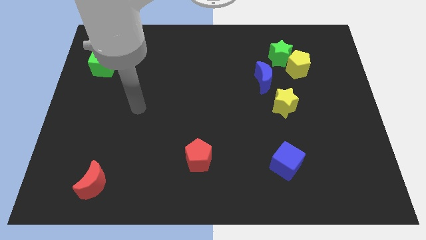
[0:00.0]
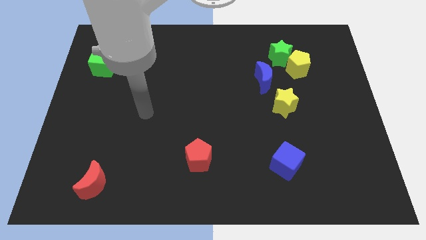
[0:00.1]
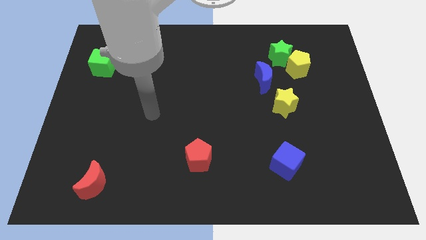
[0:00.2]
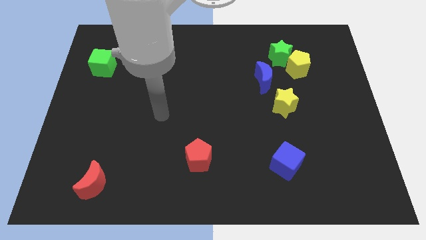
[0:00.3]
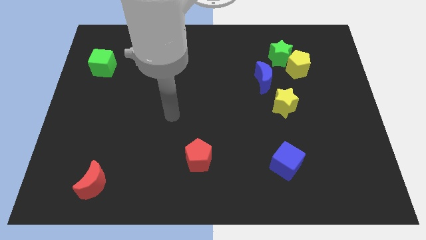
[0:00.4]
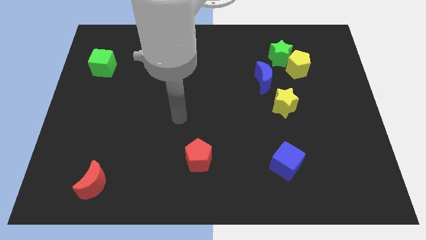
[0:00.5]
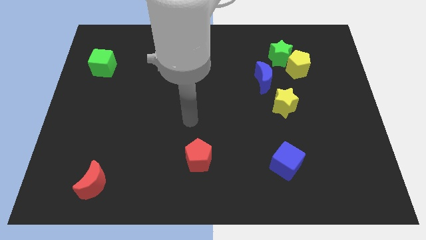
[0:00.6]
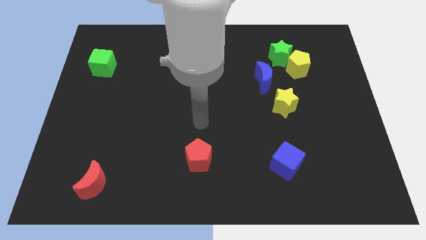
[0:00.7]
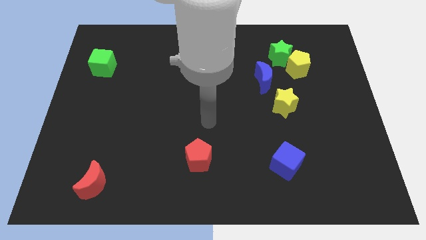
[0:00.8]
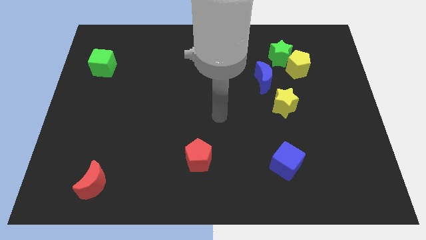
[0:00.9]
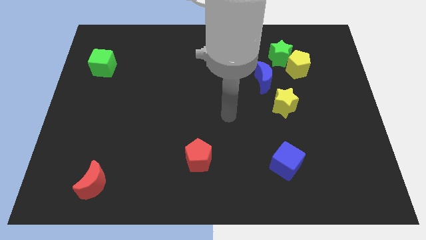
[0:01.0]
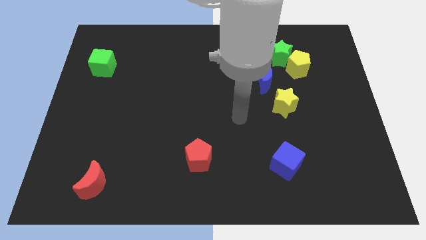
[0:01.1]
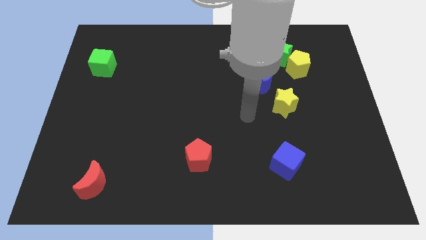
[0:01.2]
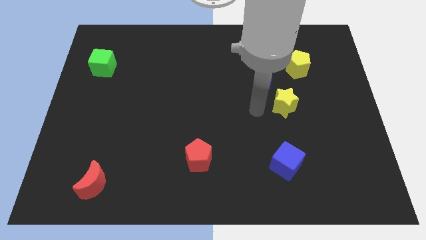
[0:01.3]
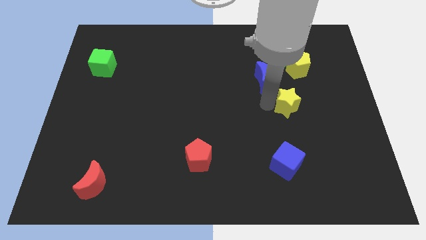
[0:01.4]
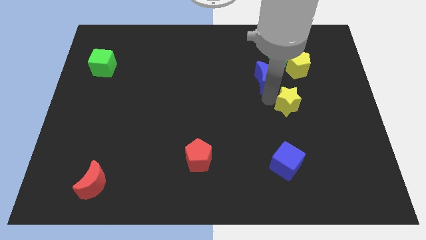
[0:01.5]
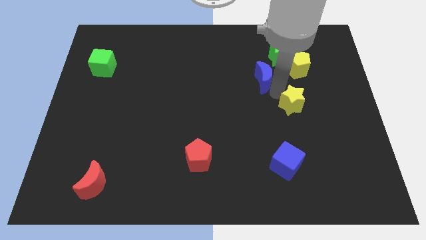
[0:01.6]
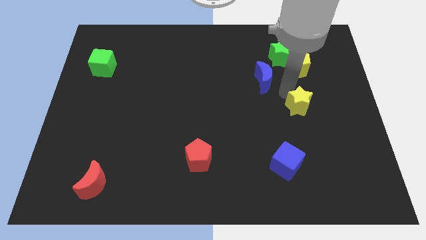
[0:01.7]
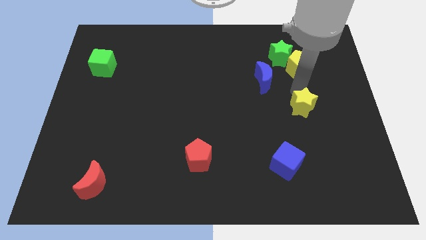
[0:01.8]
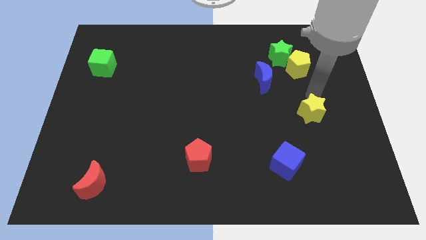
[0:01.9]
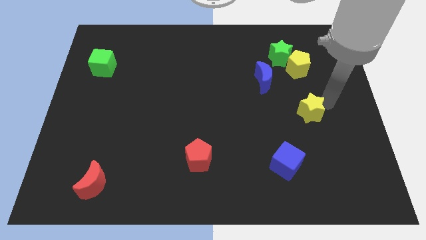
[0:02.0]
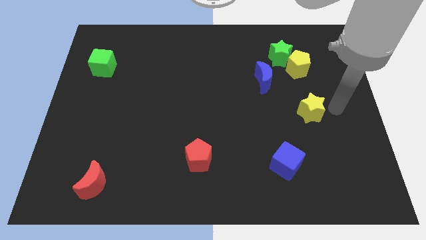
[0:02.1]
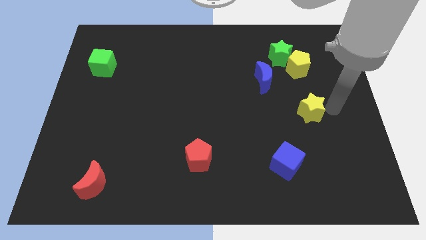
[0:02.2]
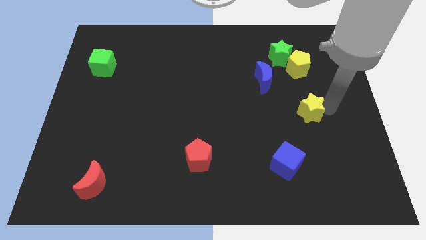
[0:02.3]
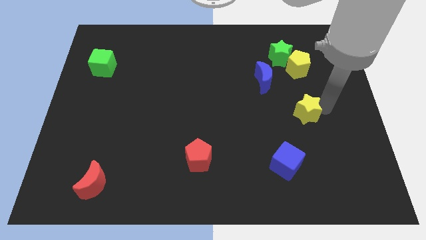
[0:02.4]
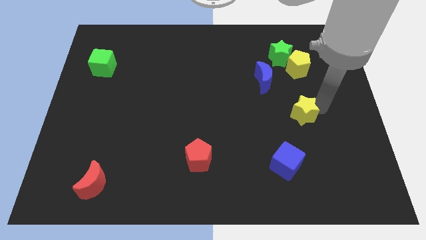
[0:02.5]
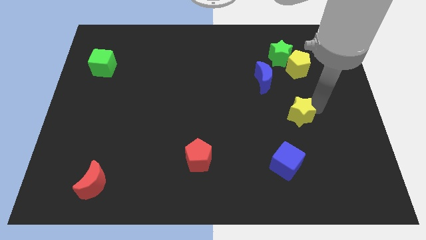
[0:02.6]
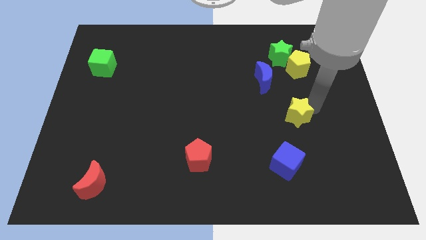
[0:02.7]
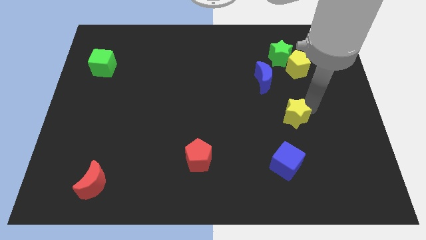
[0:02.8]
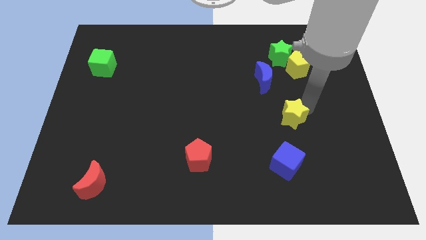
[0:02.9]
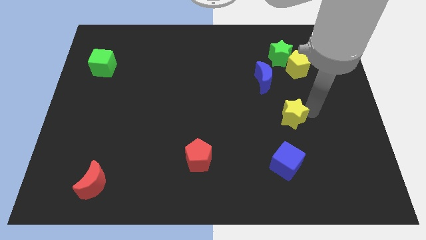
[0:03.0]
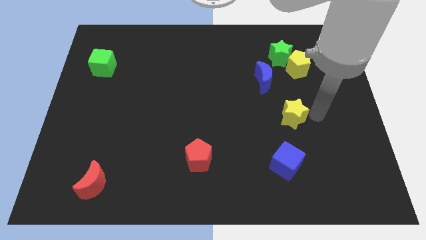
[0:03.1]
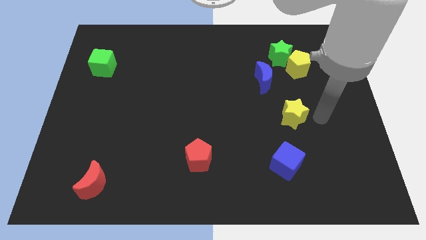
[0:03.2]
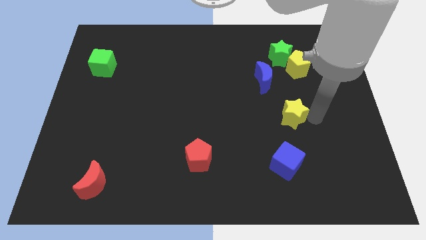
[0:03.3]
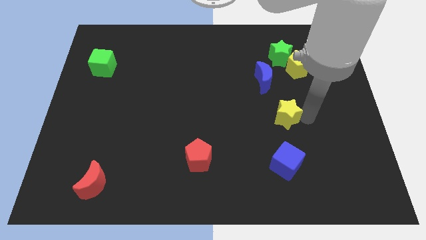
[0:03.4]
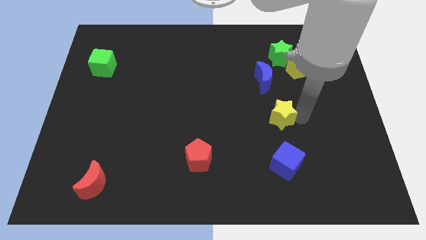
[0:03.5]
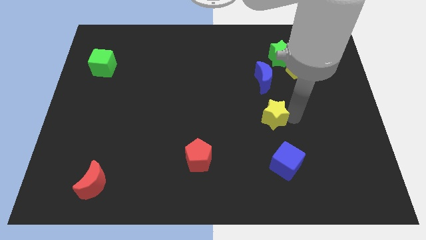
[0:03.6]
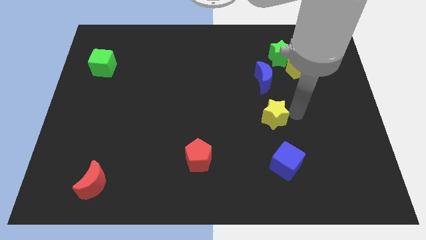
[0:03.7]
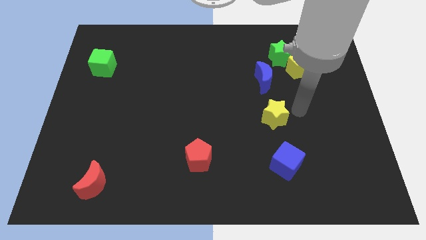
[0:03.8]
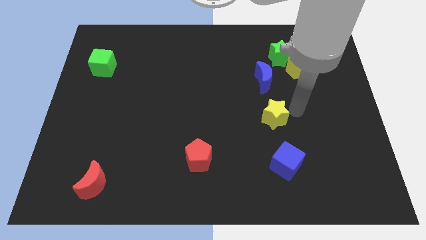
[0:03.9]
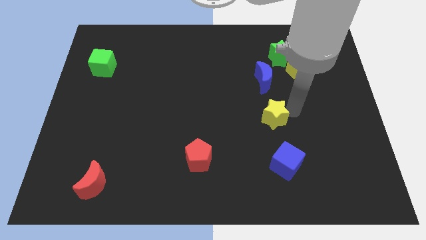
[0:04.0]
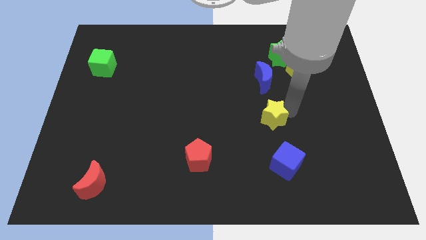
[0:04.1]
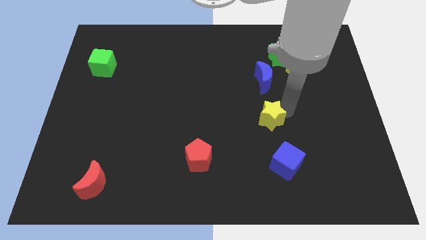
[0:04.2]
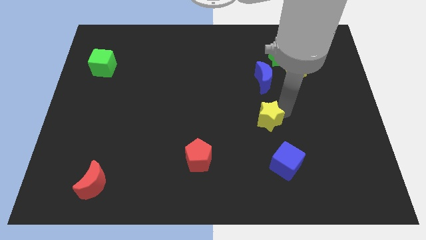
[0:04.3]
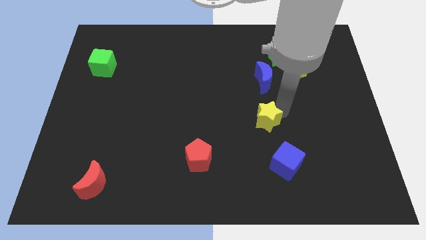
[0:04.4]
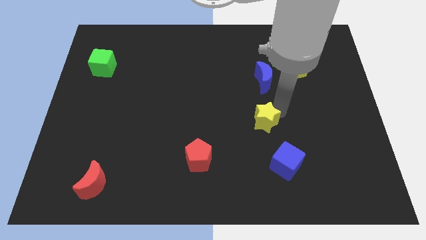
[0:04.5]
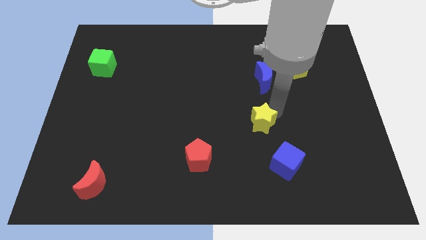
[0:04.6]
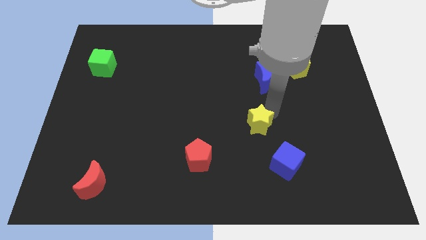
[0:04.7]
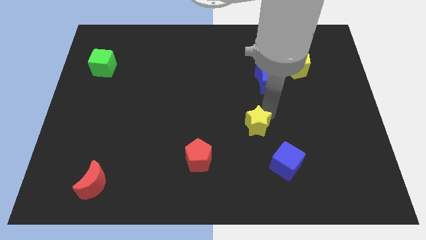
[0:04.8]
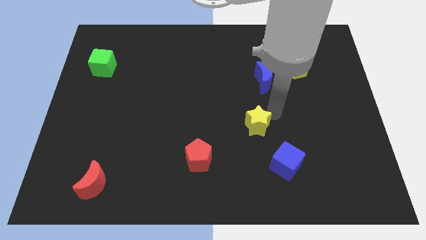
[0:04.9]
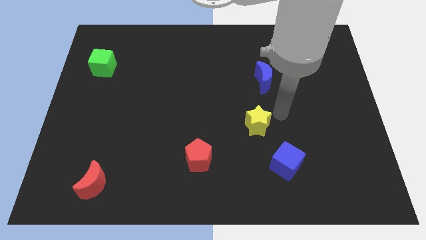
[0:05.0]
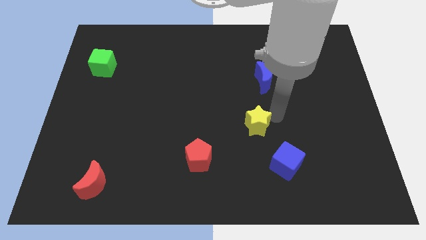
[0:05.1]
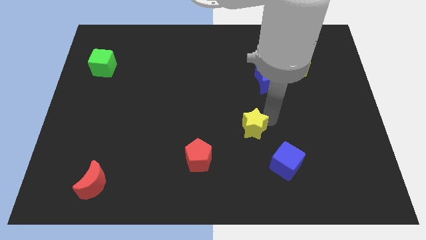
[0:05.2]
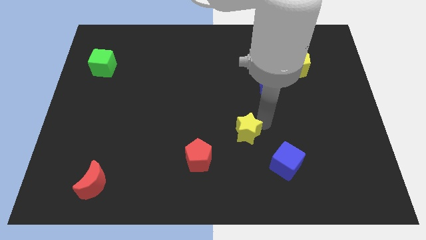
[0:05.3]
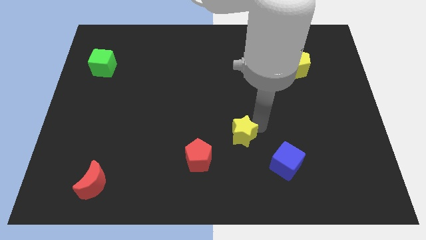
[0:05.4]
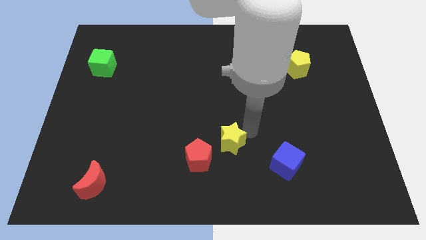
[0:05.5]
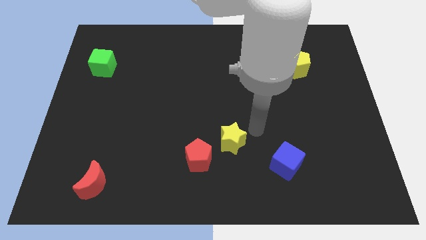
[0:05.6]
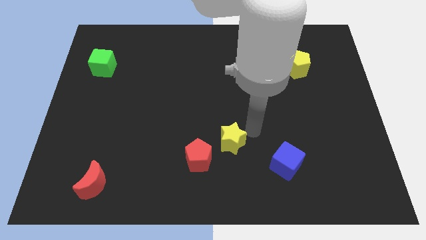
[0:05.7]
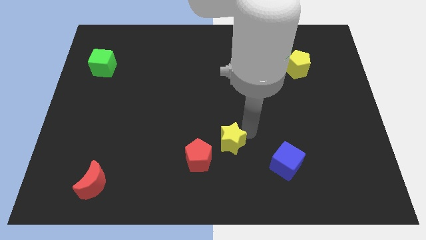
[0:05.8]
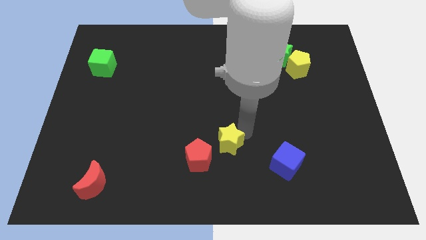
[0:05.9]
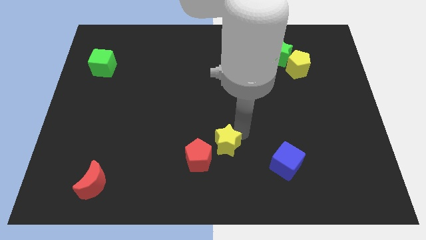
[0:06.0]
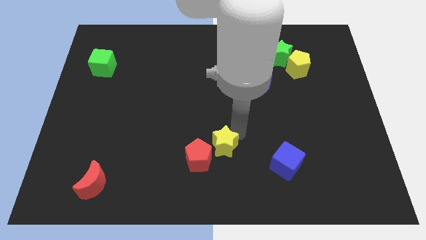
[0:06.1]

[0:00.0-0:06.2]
put the yellow star towards the red pentagon

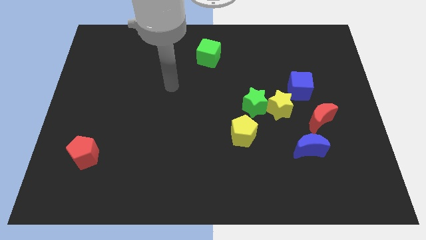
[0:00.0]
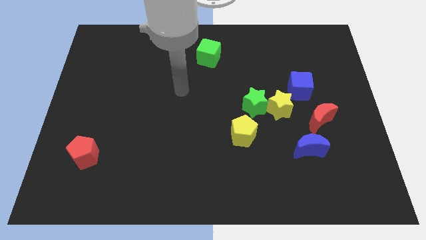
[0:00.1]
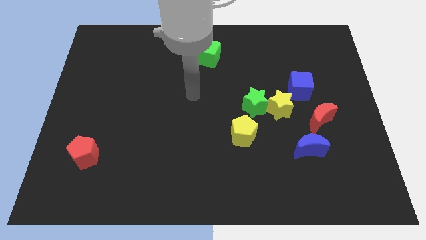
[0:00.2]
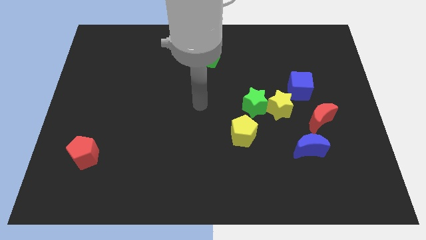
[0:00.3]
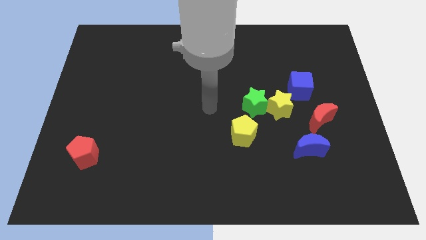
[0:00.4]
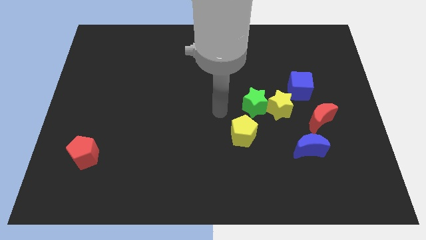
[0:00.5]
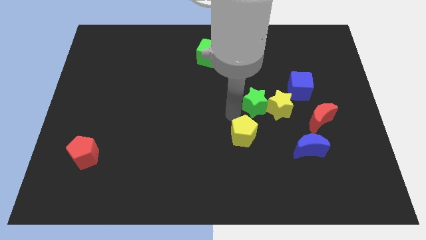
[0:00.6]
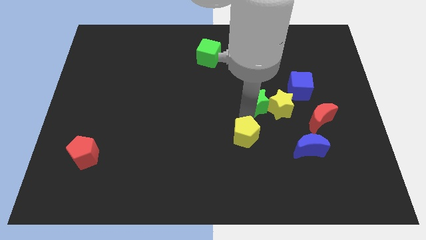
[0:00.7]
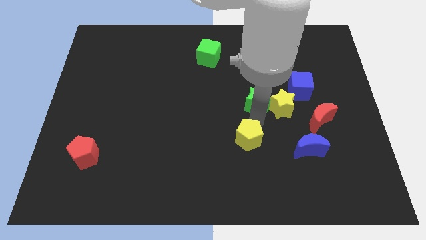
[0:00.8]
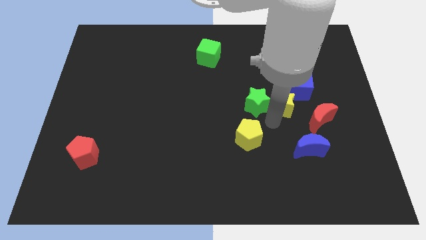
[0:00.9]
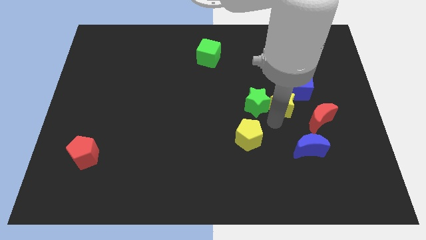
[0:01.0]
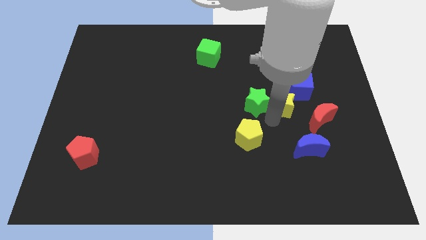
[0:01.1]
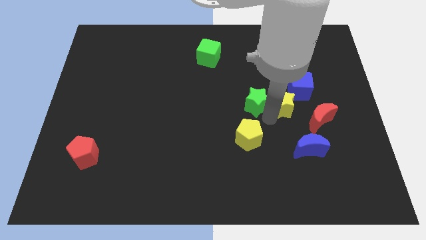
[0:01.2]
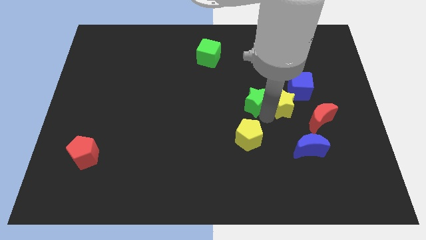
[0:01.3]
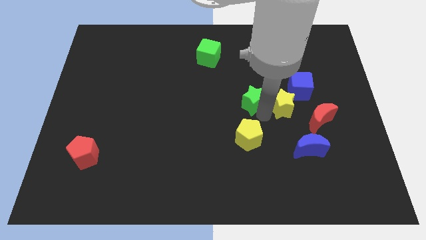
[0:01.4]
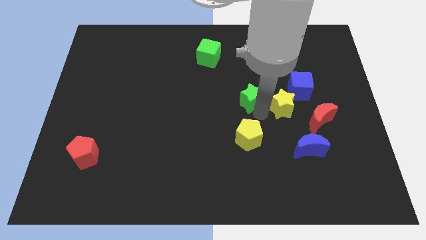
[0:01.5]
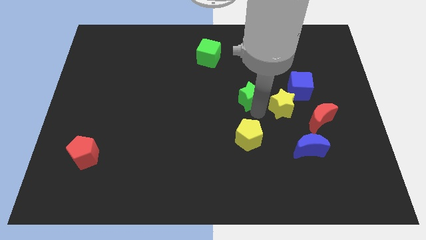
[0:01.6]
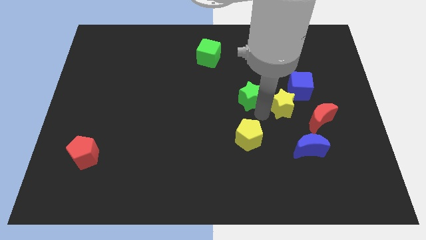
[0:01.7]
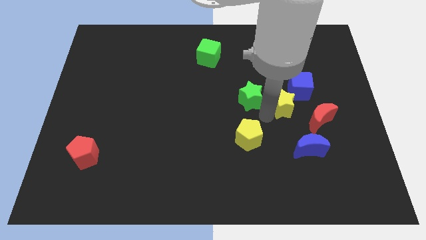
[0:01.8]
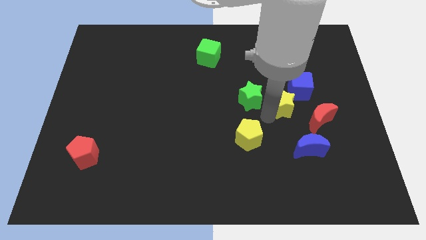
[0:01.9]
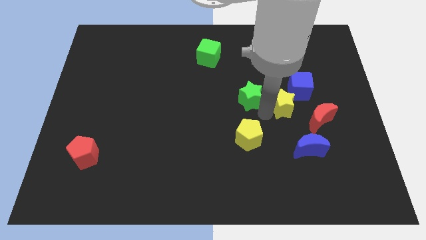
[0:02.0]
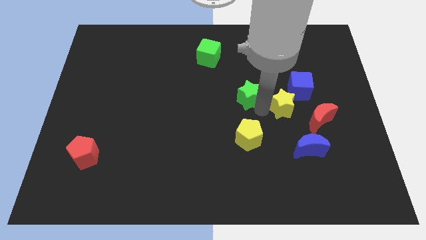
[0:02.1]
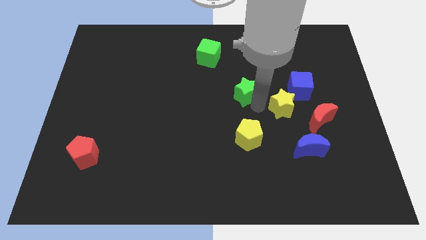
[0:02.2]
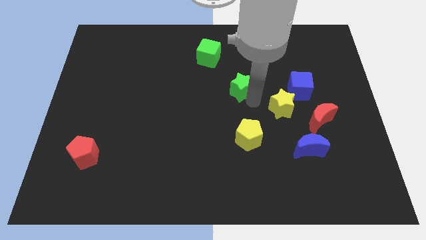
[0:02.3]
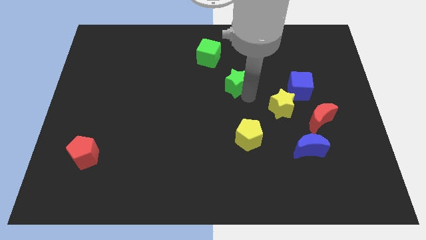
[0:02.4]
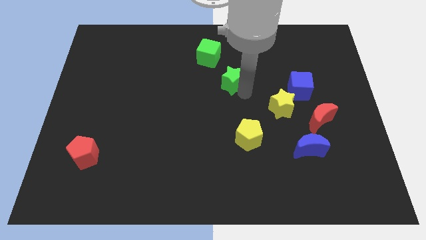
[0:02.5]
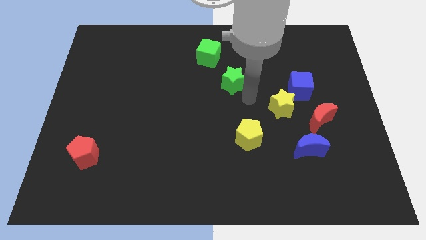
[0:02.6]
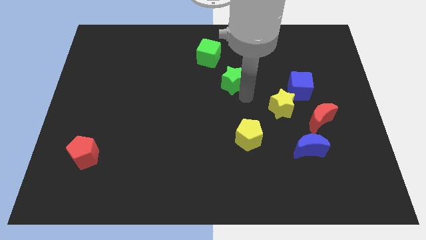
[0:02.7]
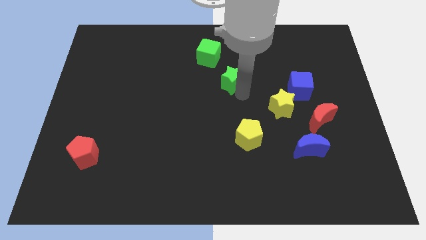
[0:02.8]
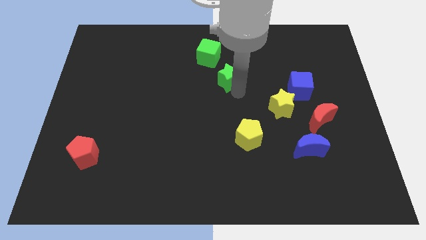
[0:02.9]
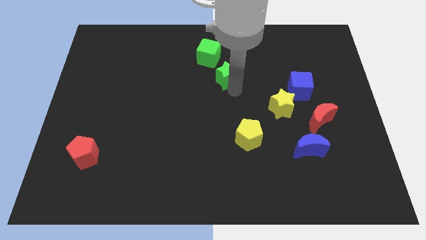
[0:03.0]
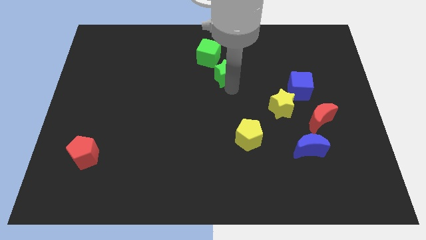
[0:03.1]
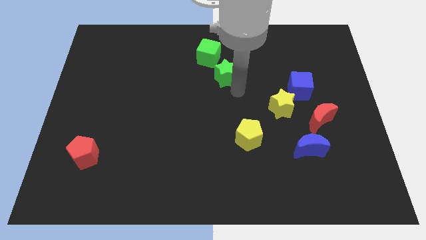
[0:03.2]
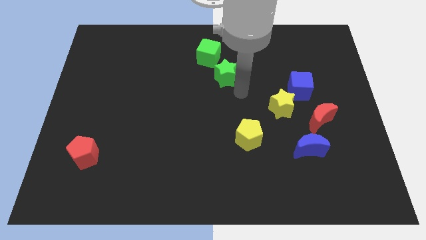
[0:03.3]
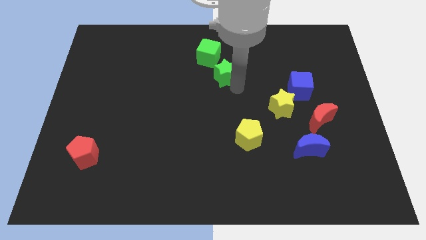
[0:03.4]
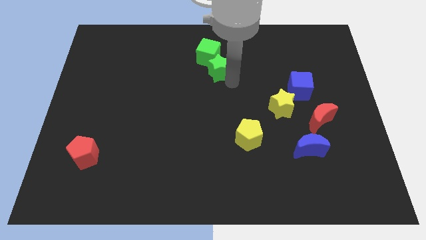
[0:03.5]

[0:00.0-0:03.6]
put the green star close to the green cube
